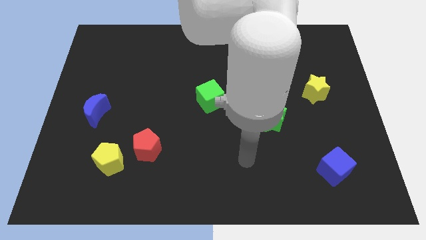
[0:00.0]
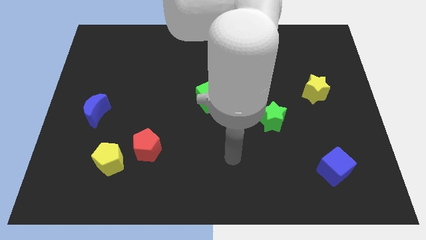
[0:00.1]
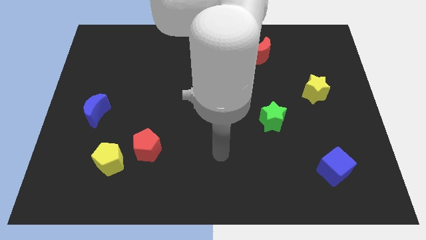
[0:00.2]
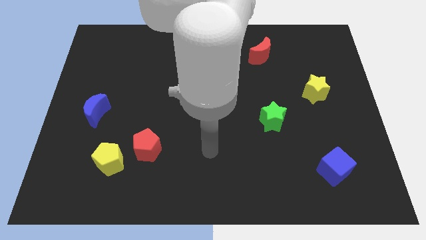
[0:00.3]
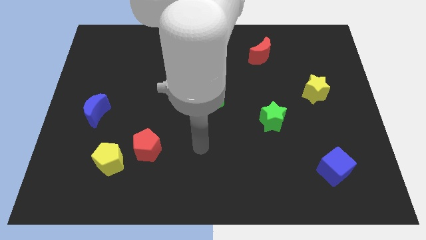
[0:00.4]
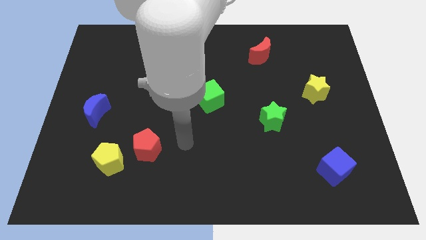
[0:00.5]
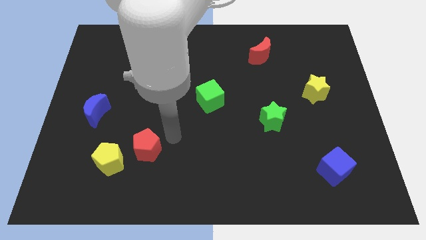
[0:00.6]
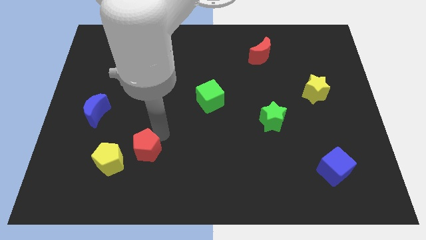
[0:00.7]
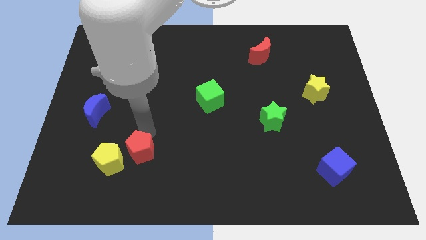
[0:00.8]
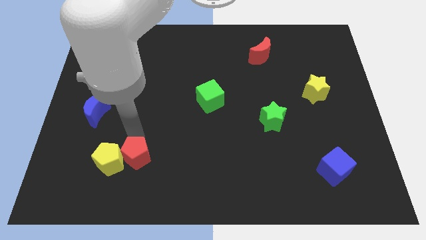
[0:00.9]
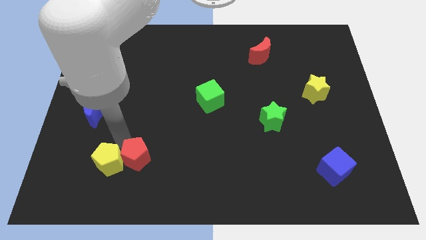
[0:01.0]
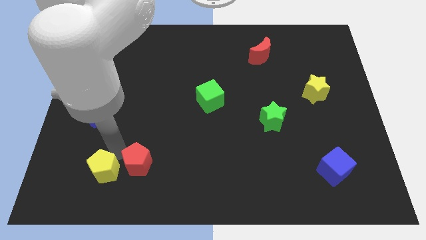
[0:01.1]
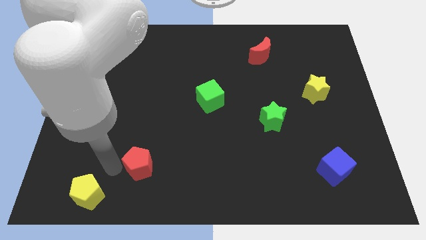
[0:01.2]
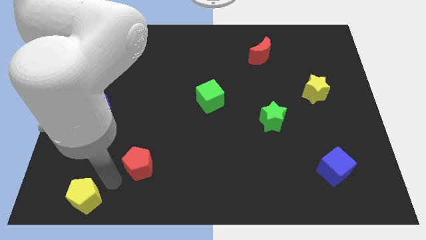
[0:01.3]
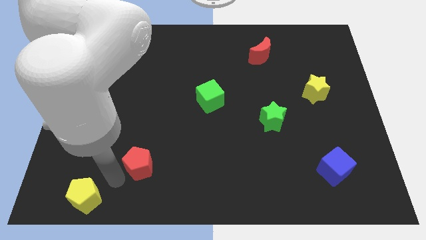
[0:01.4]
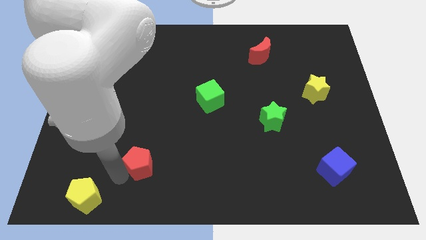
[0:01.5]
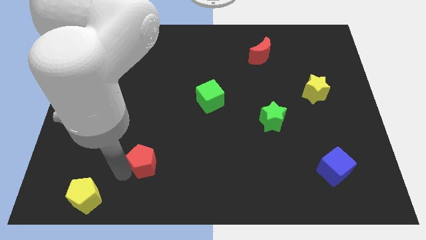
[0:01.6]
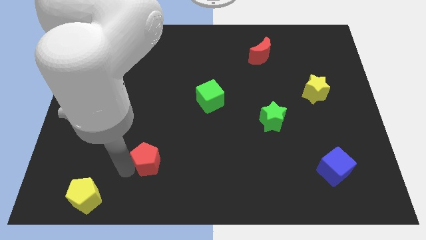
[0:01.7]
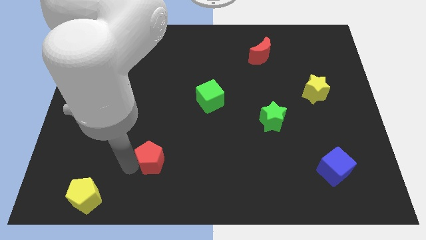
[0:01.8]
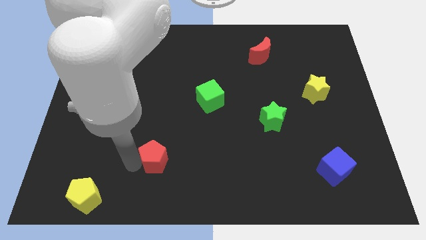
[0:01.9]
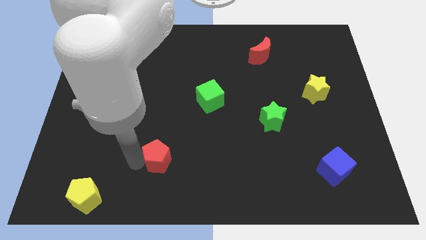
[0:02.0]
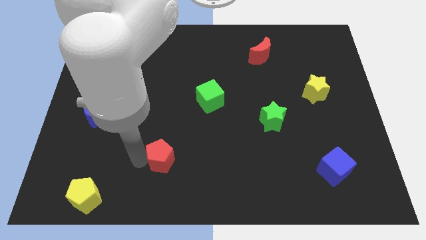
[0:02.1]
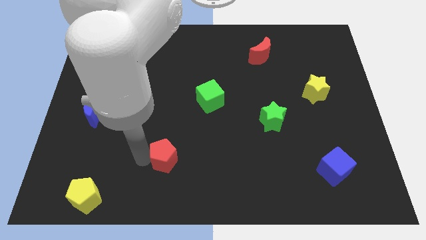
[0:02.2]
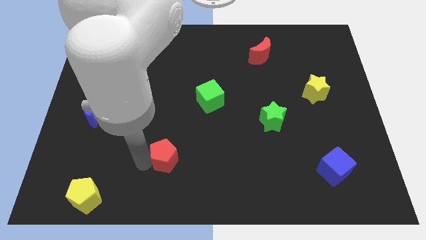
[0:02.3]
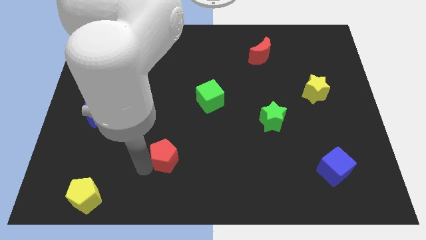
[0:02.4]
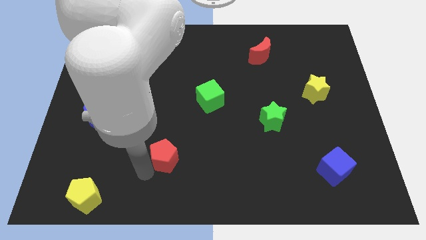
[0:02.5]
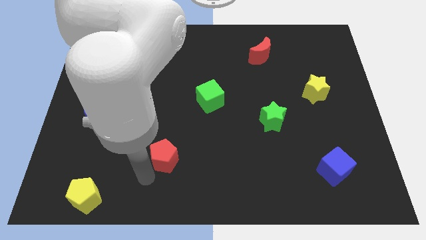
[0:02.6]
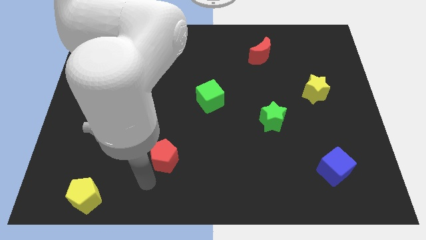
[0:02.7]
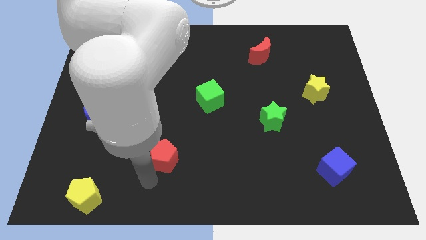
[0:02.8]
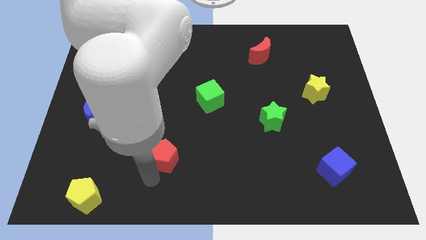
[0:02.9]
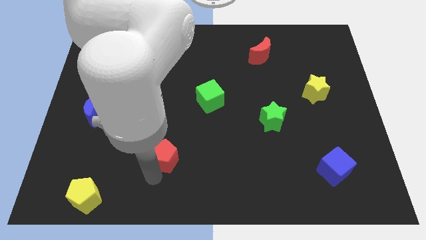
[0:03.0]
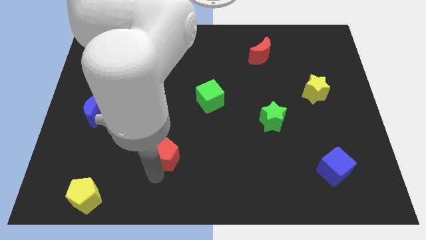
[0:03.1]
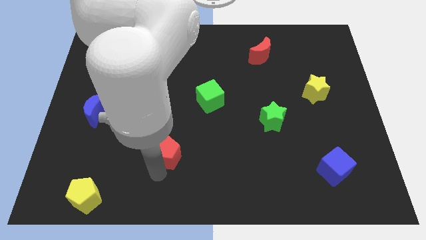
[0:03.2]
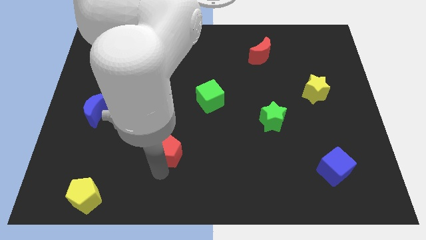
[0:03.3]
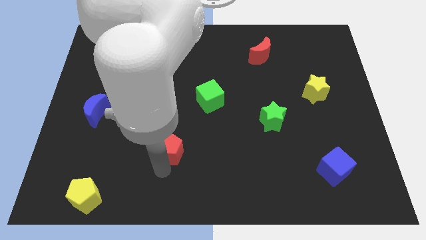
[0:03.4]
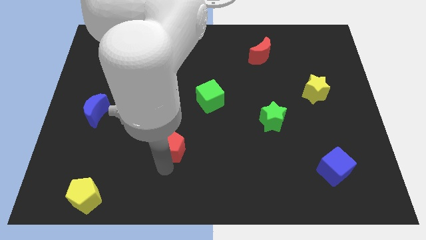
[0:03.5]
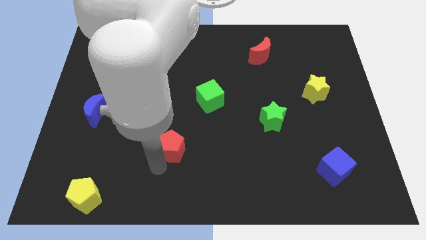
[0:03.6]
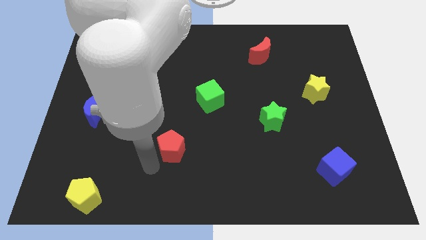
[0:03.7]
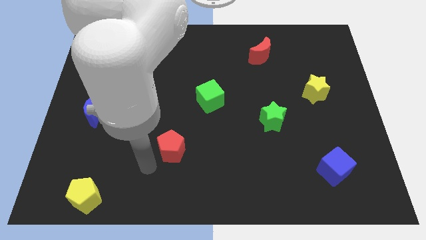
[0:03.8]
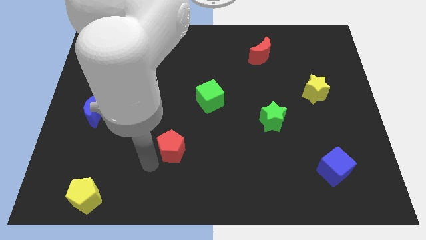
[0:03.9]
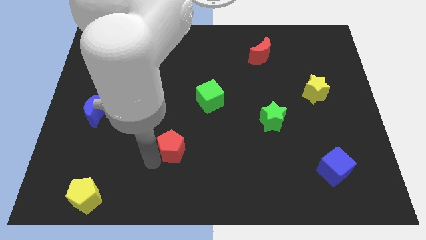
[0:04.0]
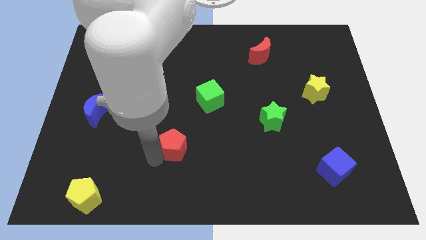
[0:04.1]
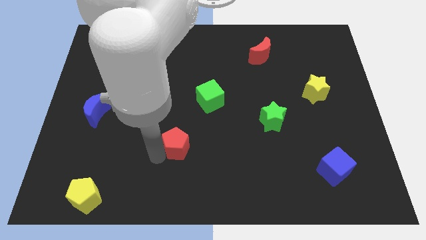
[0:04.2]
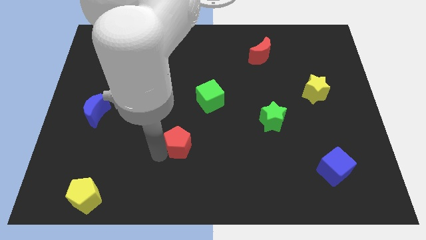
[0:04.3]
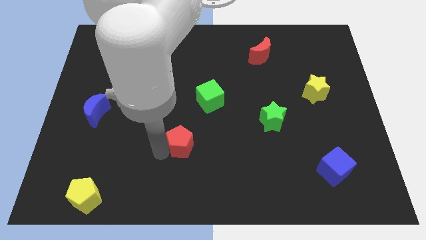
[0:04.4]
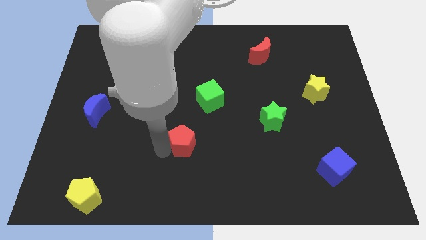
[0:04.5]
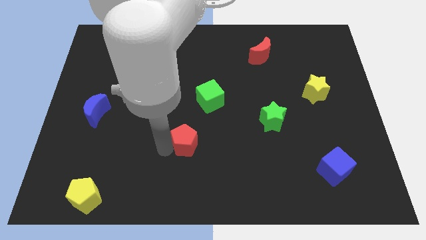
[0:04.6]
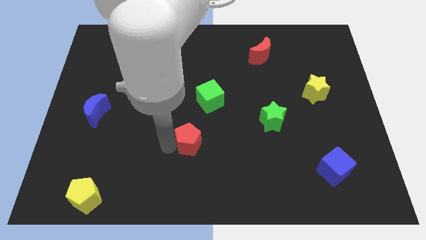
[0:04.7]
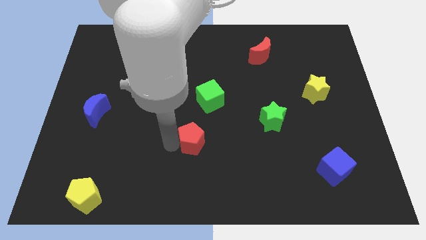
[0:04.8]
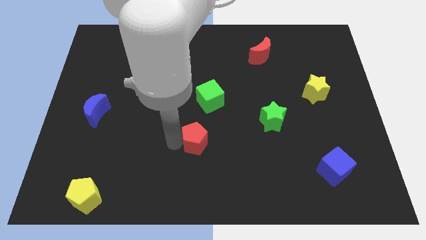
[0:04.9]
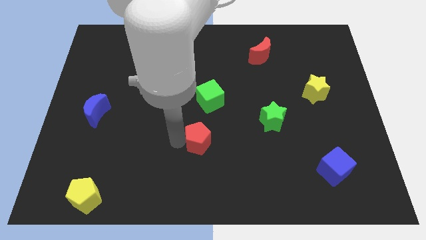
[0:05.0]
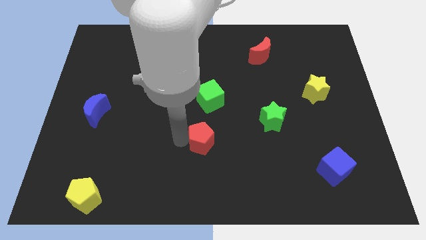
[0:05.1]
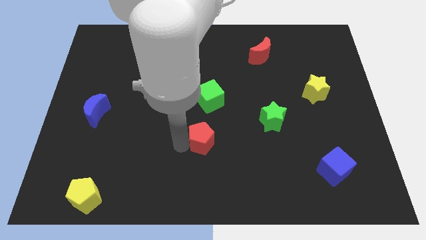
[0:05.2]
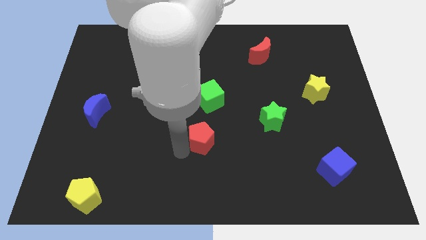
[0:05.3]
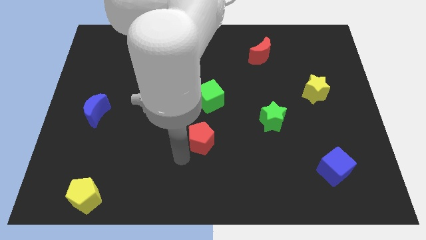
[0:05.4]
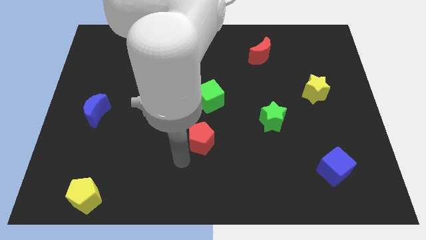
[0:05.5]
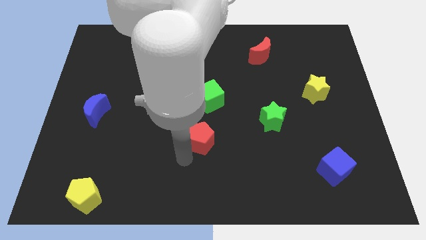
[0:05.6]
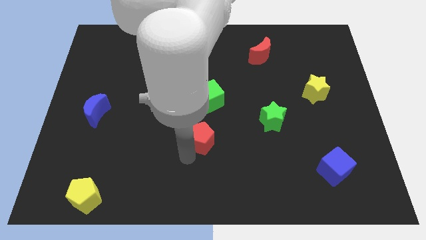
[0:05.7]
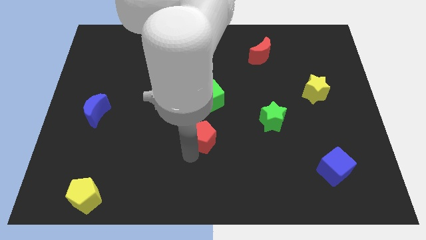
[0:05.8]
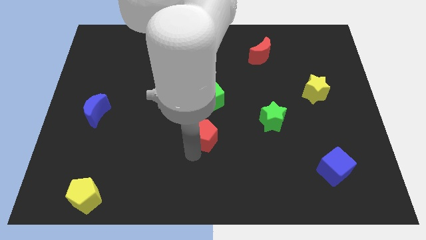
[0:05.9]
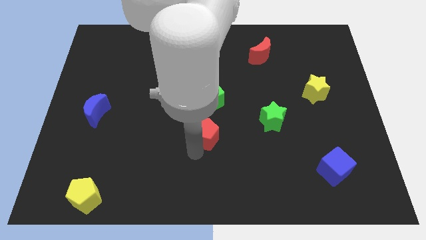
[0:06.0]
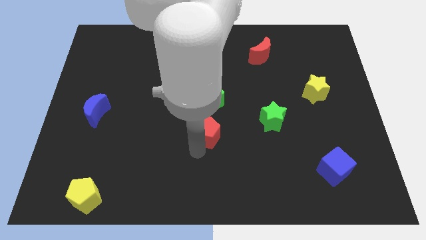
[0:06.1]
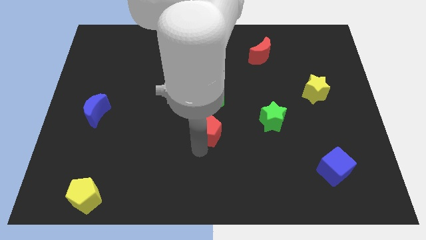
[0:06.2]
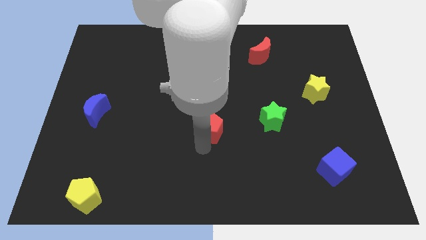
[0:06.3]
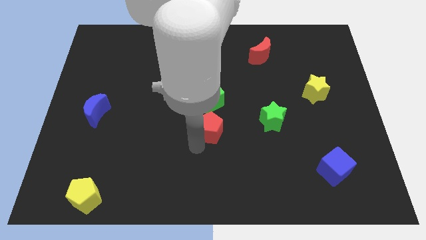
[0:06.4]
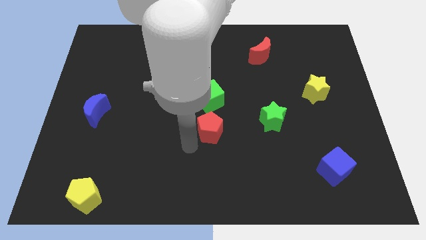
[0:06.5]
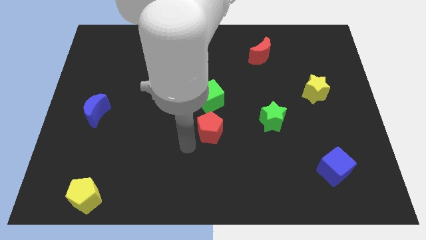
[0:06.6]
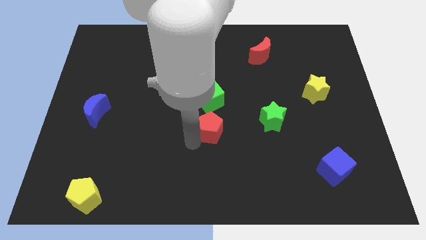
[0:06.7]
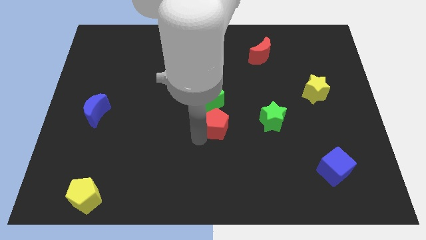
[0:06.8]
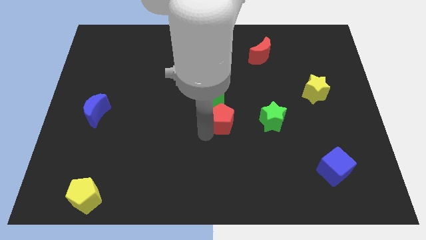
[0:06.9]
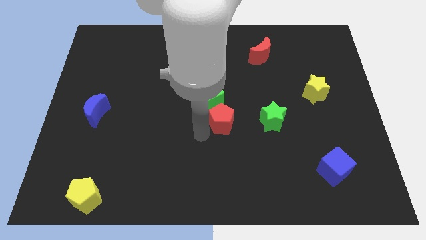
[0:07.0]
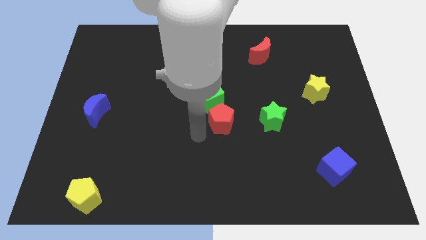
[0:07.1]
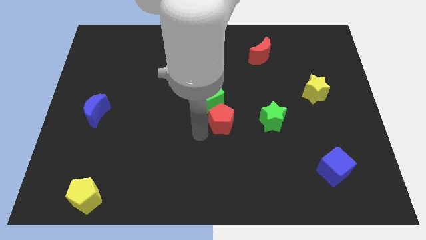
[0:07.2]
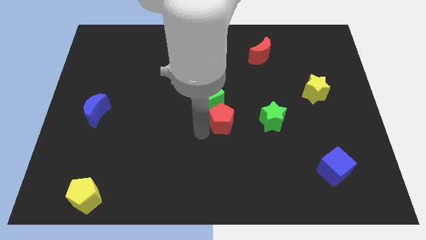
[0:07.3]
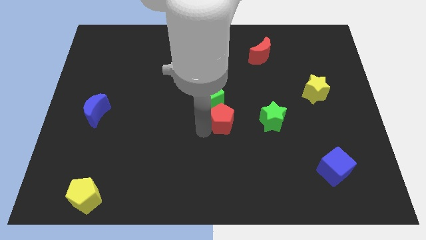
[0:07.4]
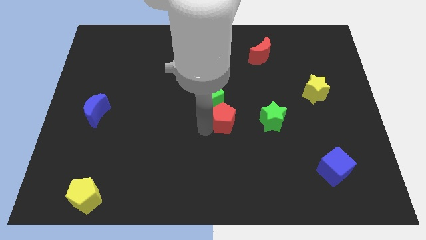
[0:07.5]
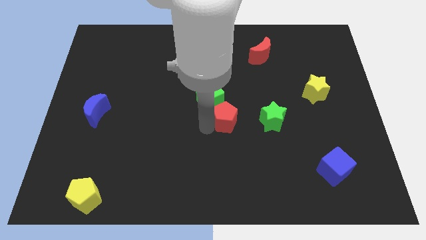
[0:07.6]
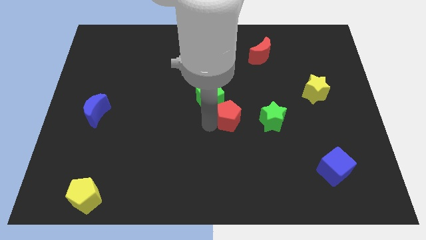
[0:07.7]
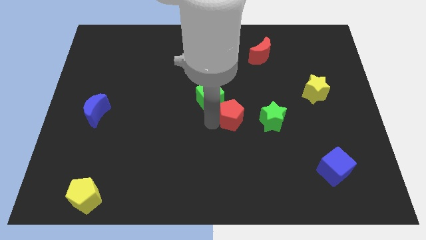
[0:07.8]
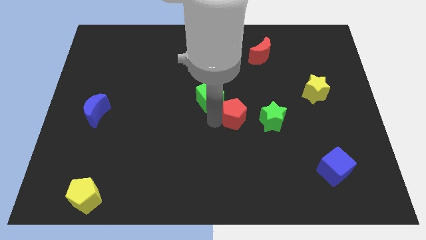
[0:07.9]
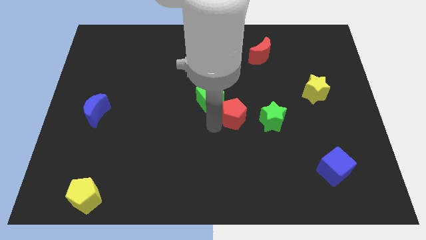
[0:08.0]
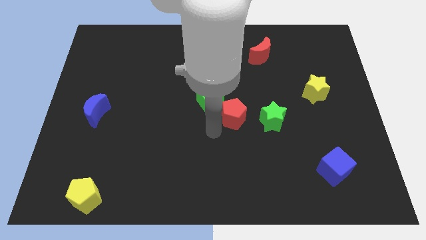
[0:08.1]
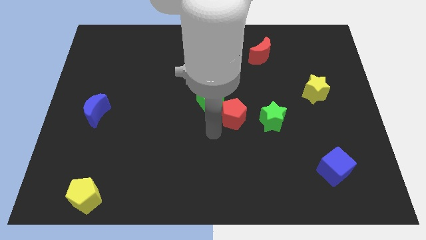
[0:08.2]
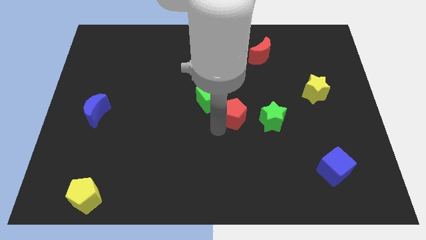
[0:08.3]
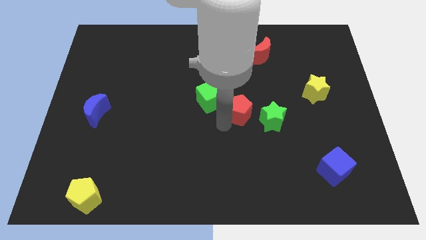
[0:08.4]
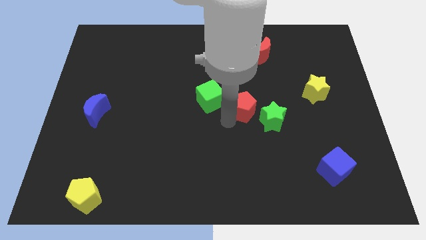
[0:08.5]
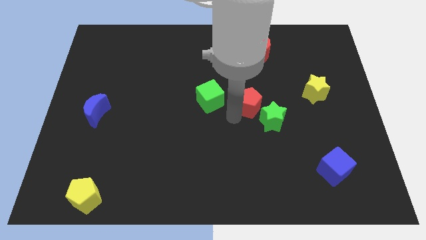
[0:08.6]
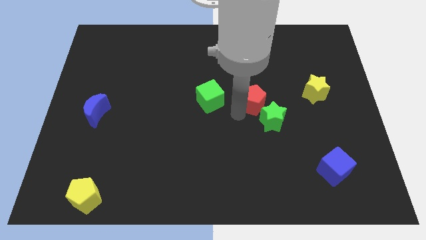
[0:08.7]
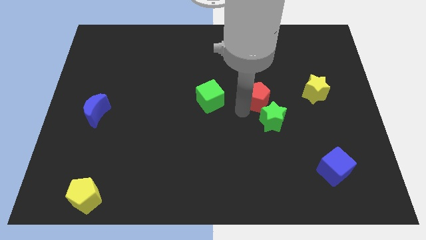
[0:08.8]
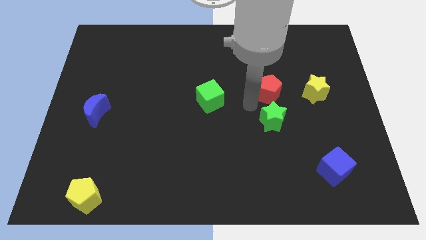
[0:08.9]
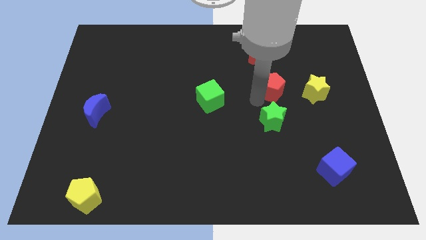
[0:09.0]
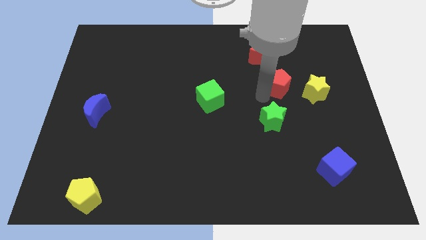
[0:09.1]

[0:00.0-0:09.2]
push the red pentagon to the top left side of the yellow star
